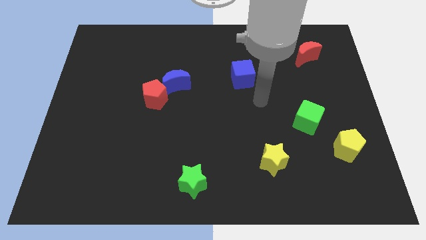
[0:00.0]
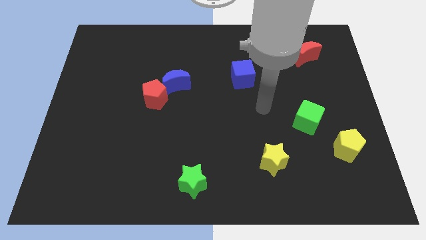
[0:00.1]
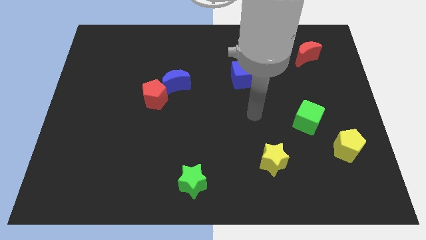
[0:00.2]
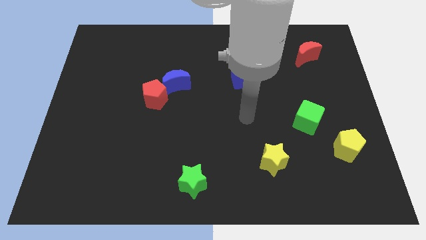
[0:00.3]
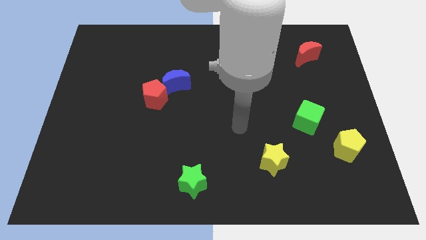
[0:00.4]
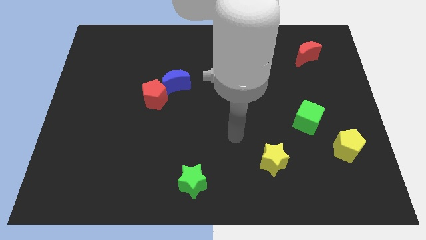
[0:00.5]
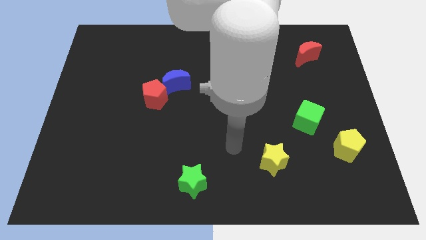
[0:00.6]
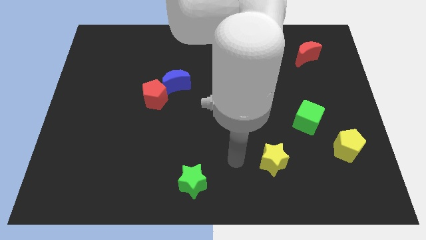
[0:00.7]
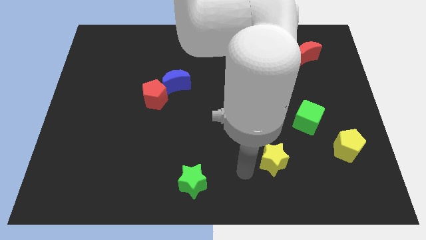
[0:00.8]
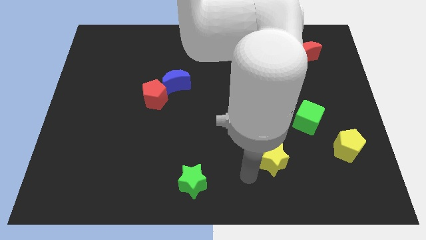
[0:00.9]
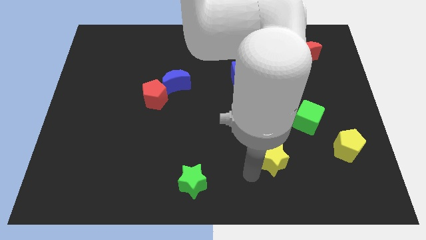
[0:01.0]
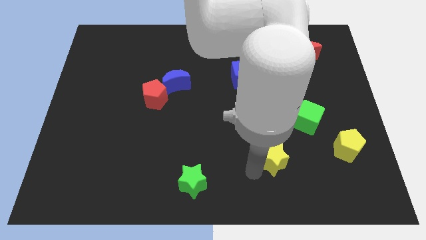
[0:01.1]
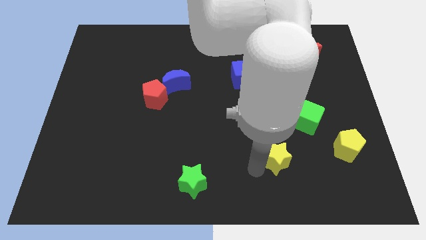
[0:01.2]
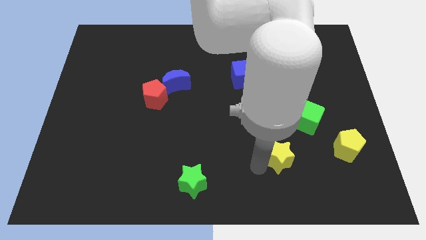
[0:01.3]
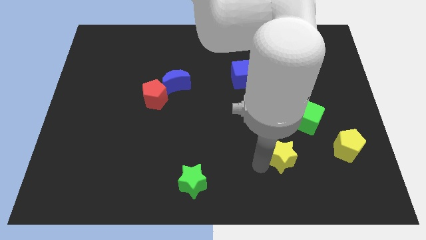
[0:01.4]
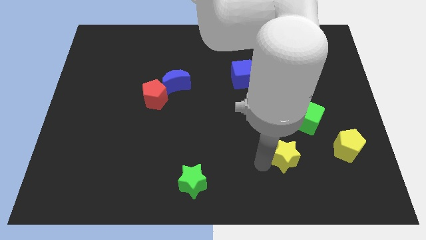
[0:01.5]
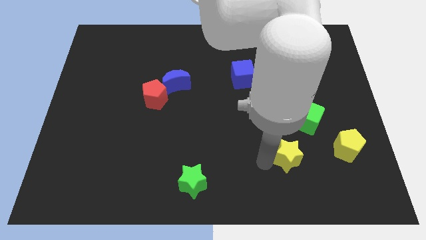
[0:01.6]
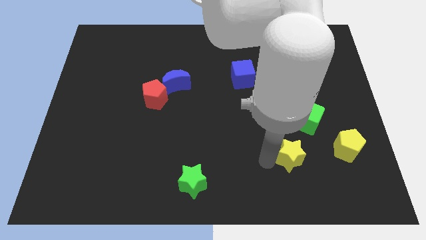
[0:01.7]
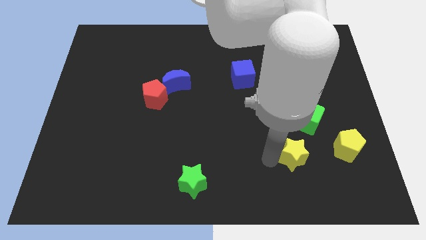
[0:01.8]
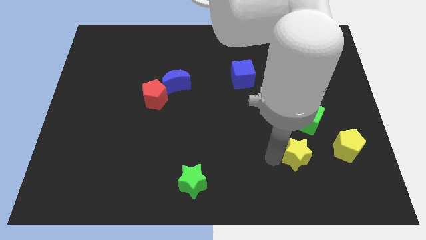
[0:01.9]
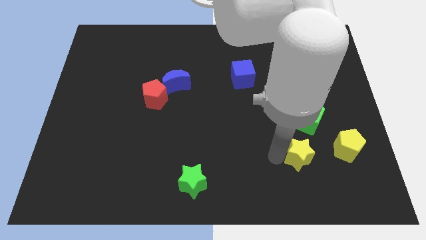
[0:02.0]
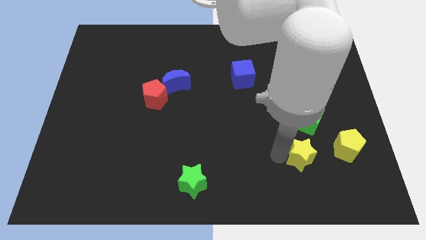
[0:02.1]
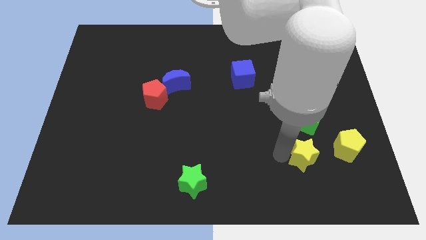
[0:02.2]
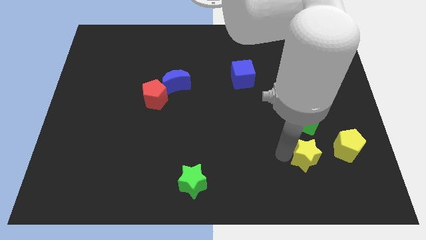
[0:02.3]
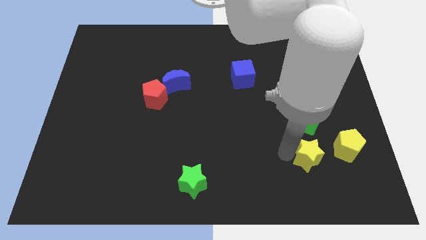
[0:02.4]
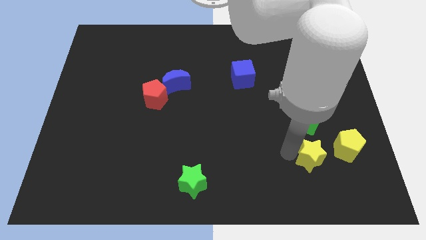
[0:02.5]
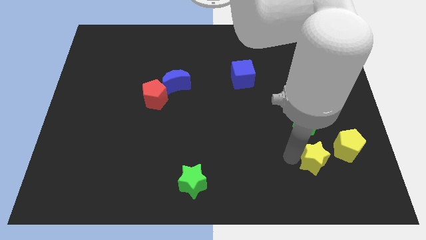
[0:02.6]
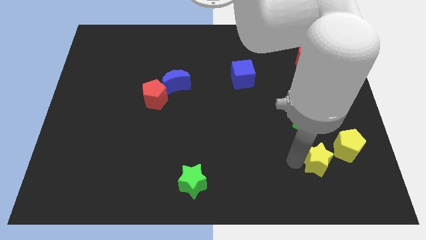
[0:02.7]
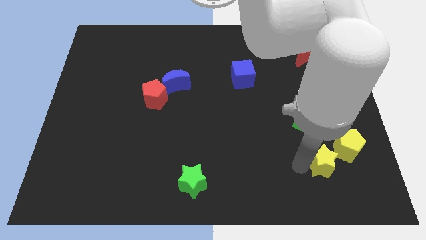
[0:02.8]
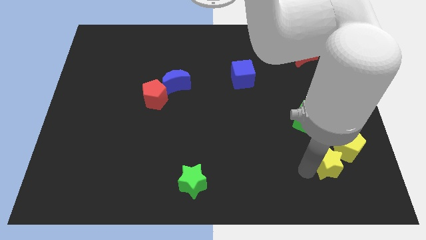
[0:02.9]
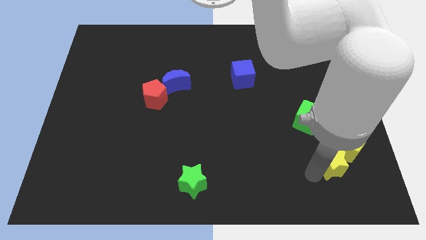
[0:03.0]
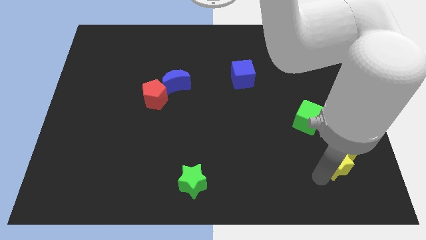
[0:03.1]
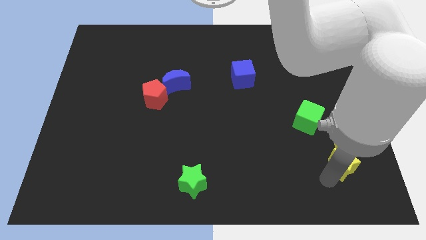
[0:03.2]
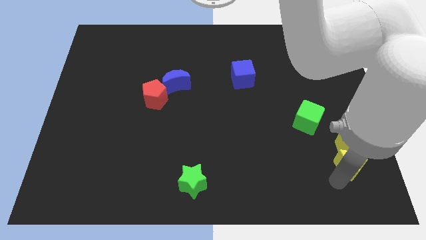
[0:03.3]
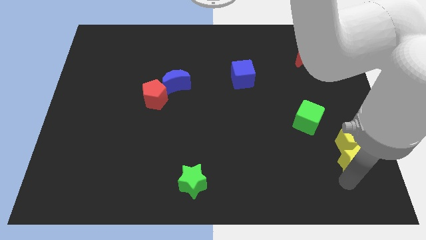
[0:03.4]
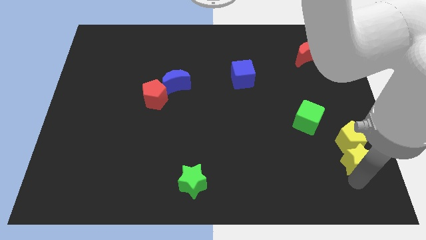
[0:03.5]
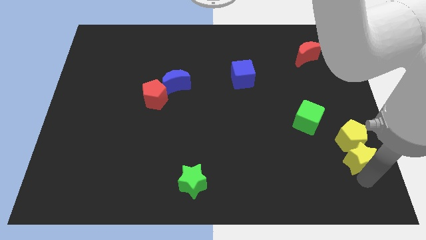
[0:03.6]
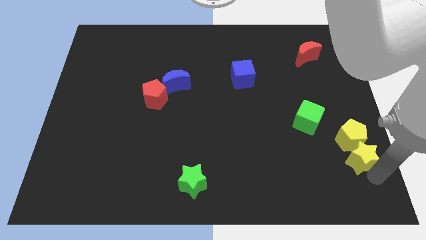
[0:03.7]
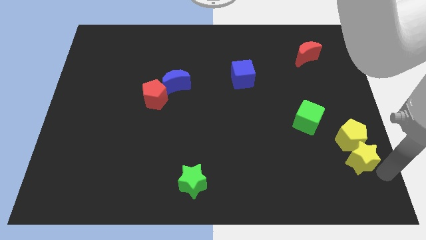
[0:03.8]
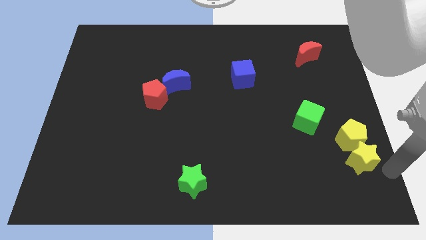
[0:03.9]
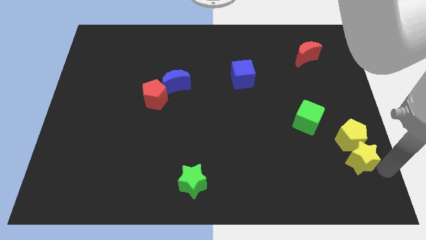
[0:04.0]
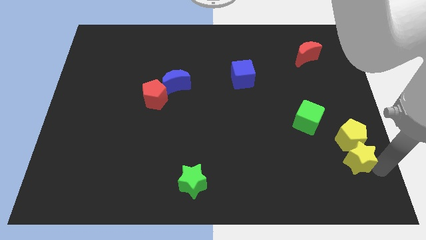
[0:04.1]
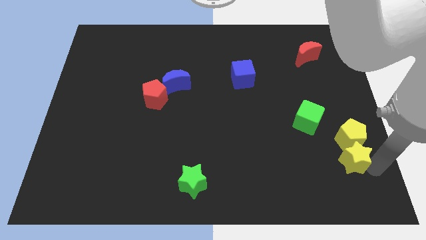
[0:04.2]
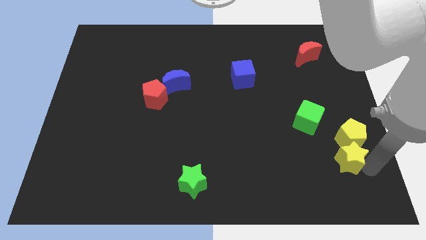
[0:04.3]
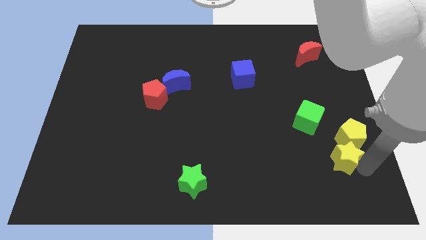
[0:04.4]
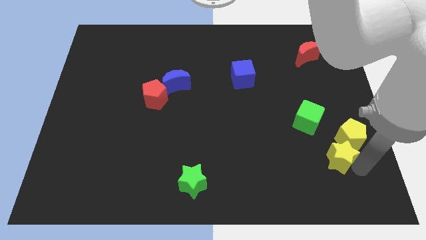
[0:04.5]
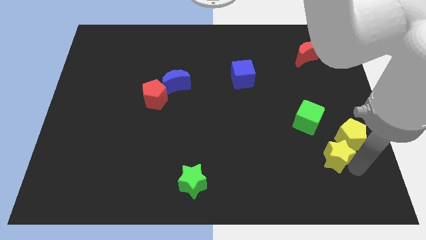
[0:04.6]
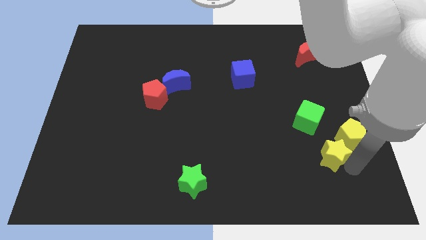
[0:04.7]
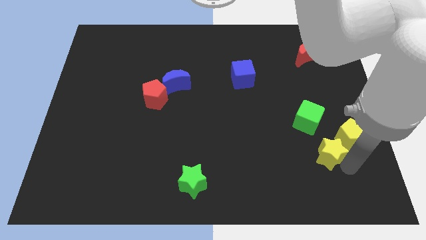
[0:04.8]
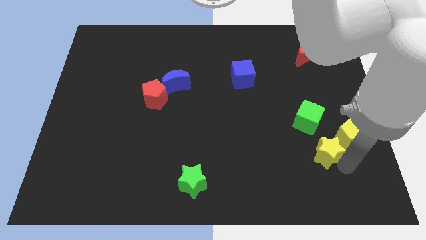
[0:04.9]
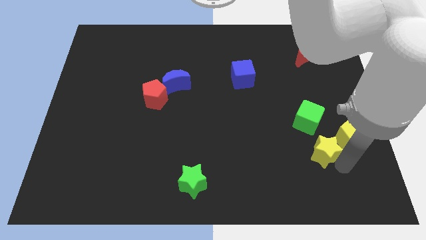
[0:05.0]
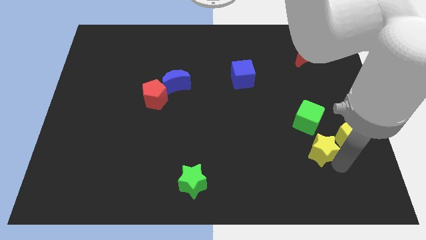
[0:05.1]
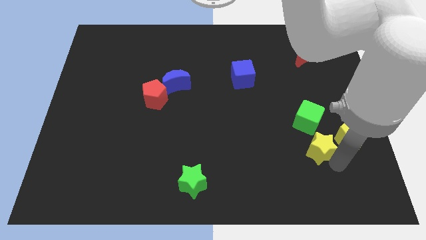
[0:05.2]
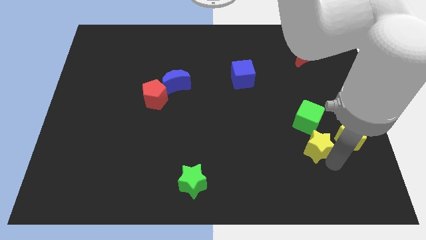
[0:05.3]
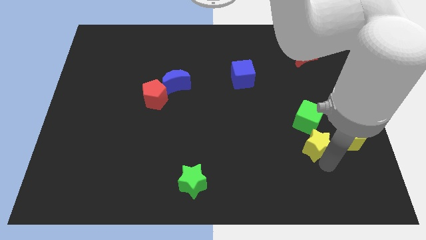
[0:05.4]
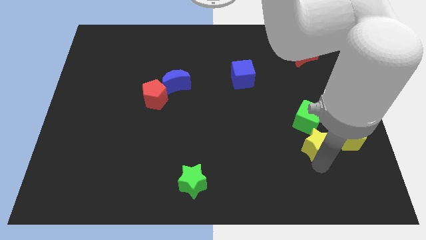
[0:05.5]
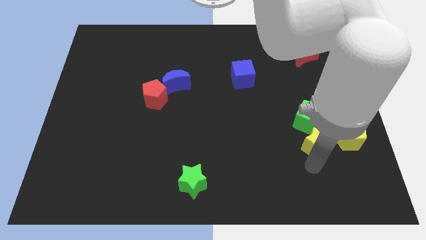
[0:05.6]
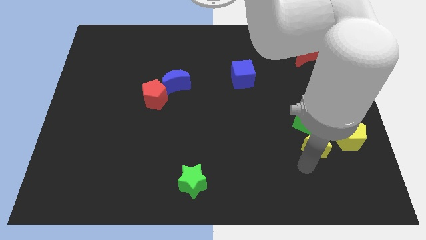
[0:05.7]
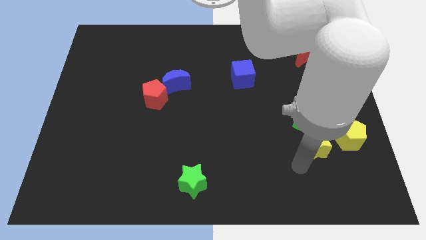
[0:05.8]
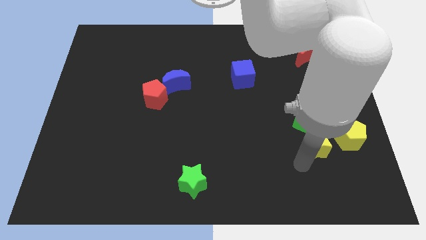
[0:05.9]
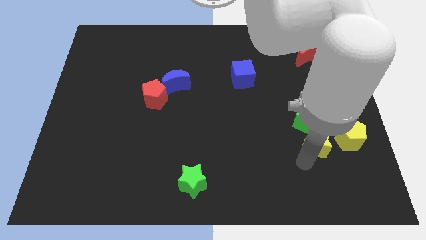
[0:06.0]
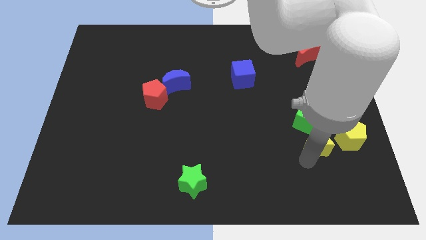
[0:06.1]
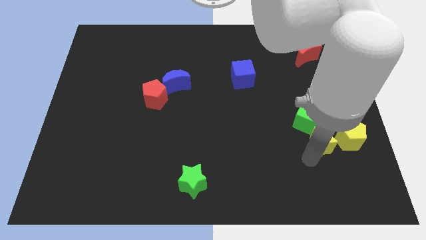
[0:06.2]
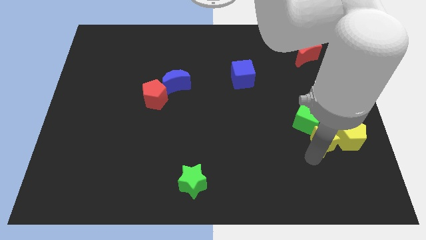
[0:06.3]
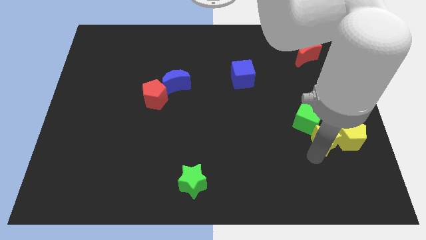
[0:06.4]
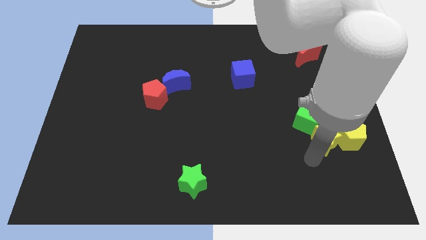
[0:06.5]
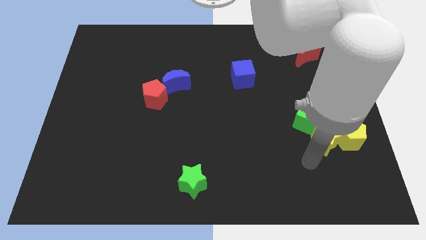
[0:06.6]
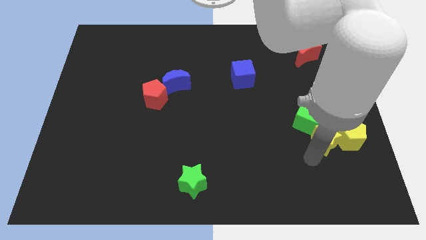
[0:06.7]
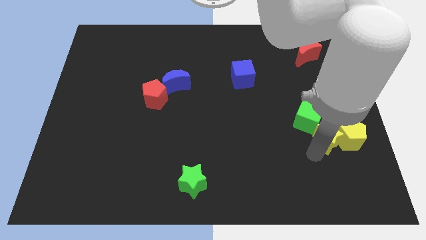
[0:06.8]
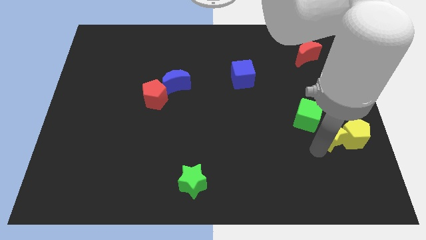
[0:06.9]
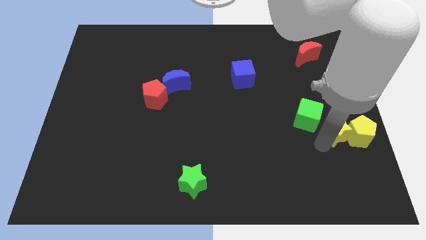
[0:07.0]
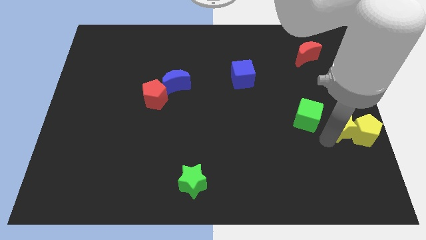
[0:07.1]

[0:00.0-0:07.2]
put the yellow star to the right side of the board

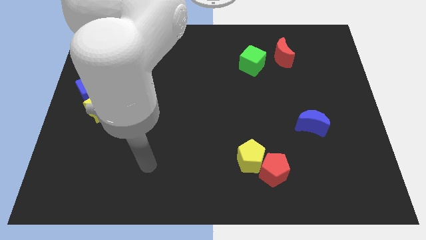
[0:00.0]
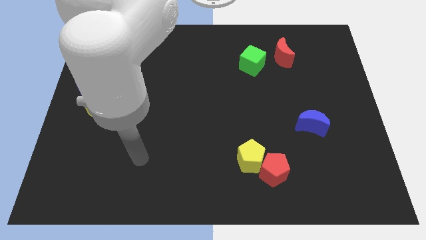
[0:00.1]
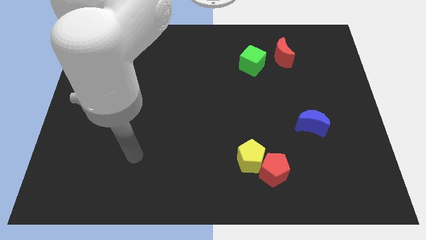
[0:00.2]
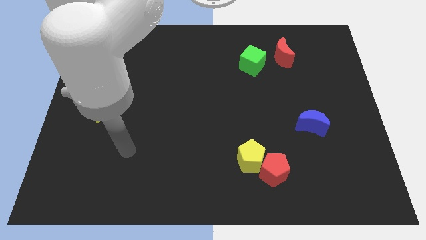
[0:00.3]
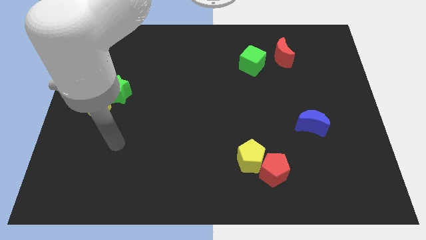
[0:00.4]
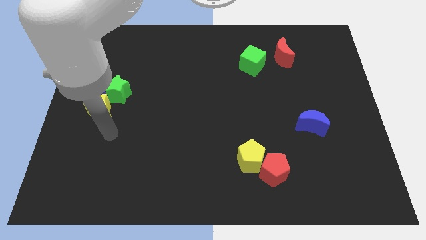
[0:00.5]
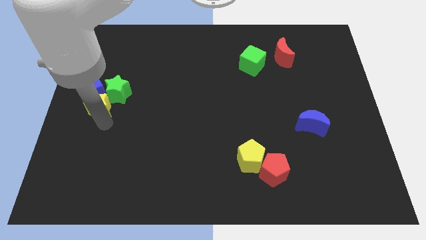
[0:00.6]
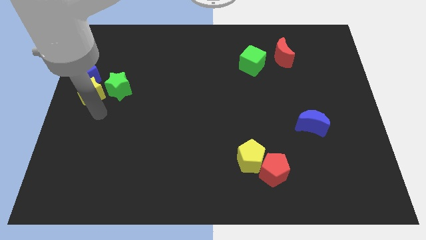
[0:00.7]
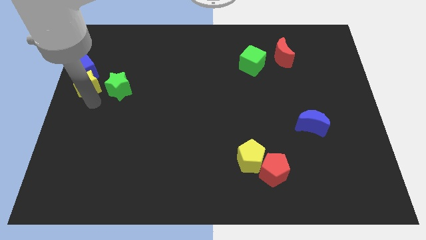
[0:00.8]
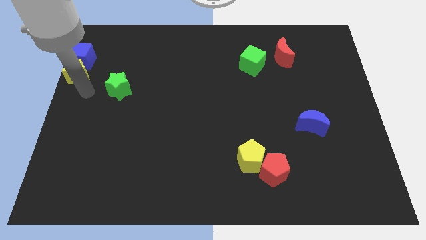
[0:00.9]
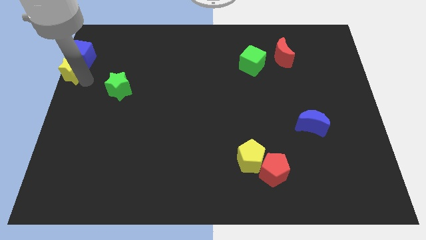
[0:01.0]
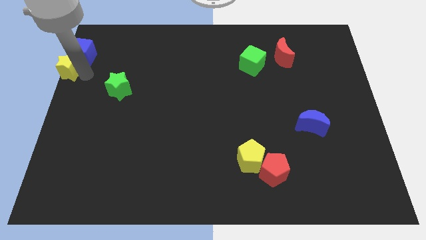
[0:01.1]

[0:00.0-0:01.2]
push the blue cube to the top left of the board
